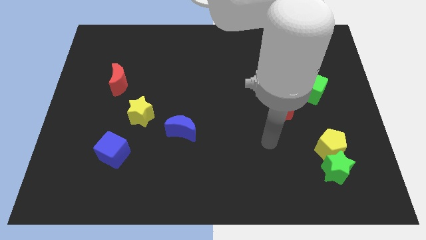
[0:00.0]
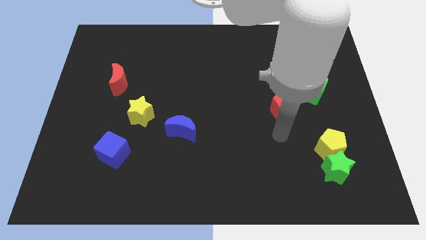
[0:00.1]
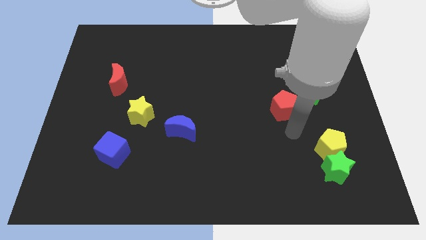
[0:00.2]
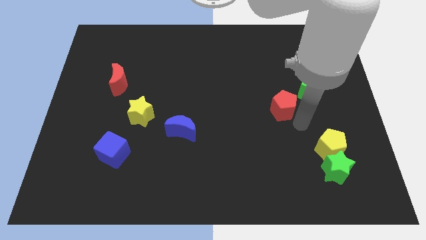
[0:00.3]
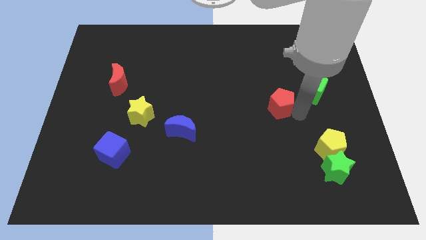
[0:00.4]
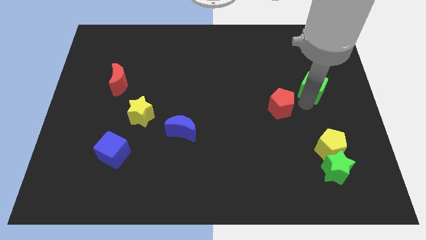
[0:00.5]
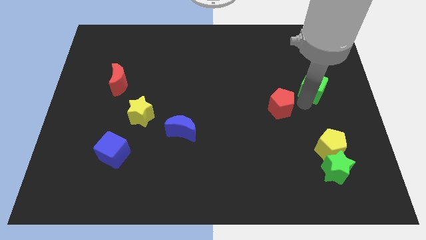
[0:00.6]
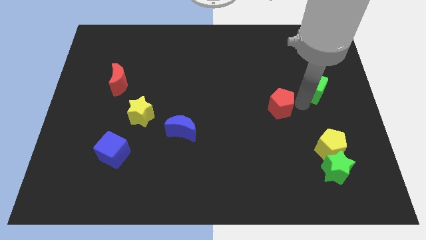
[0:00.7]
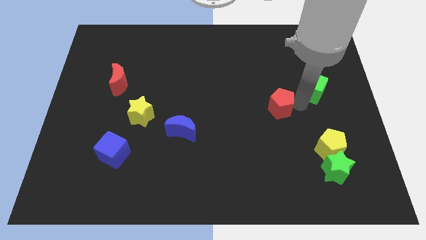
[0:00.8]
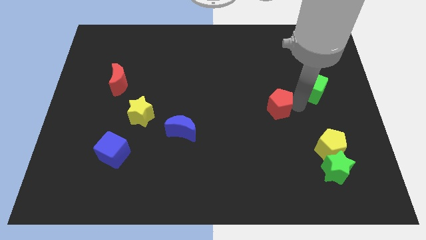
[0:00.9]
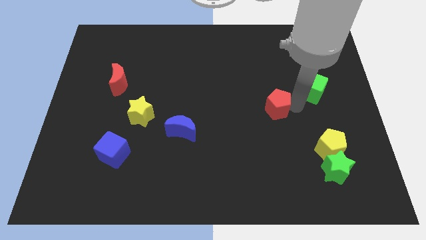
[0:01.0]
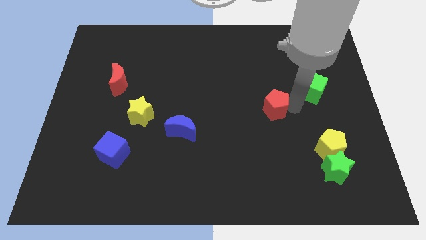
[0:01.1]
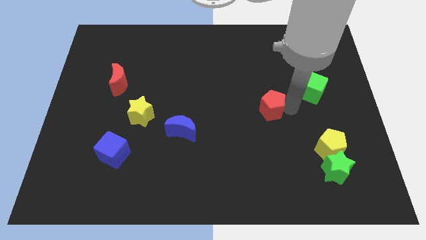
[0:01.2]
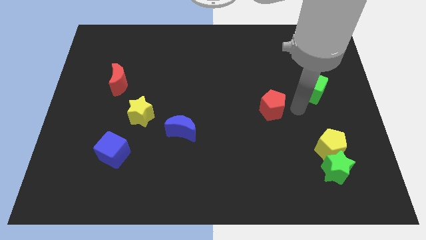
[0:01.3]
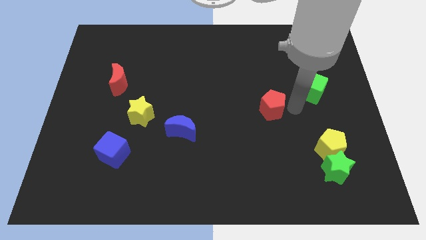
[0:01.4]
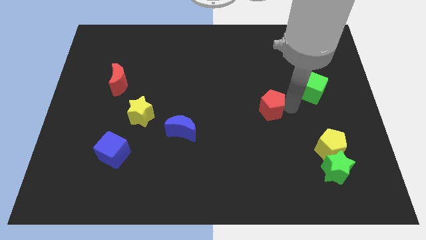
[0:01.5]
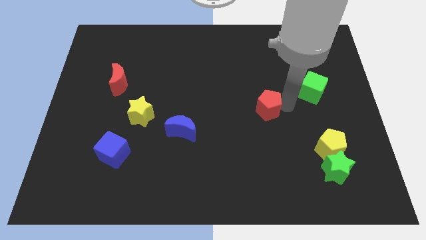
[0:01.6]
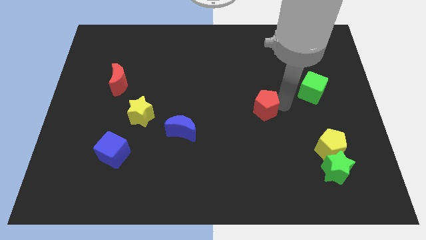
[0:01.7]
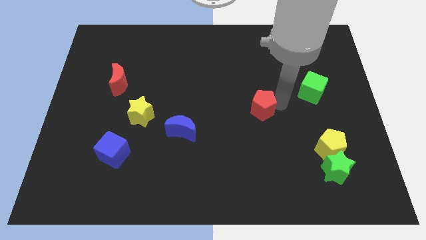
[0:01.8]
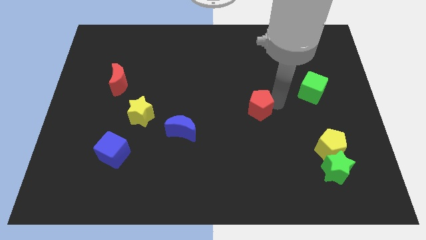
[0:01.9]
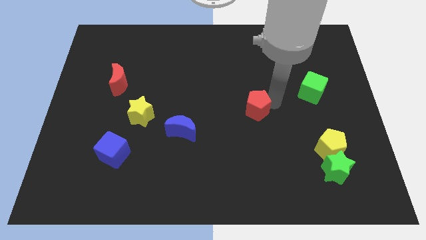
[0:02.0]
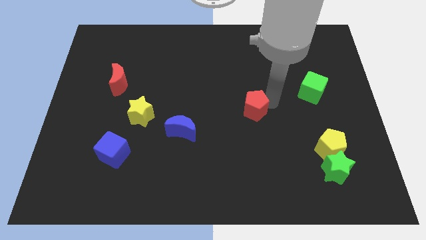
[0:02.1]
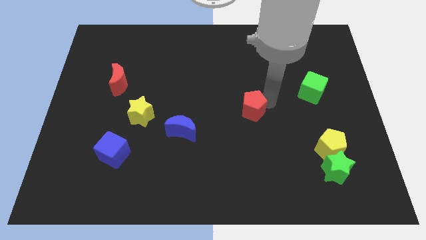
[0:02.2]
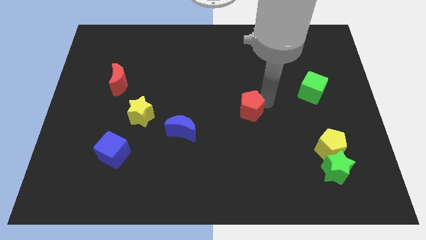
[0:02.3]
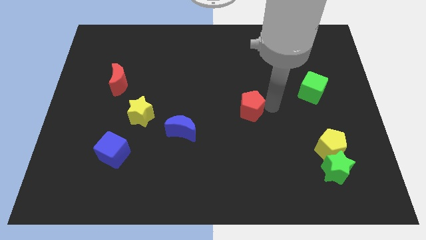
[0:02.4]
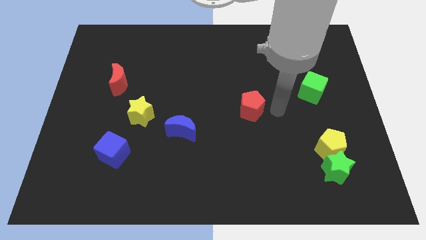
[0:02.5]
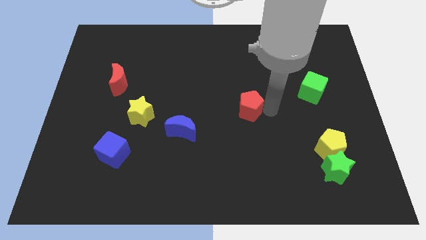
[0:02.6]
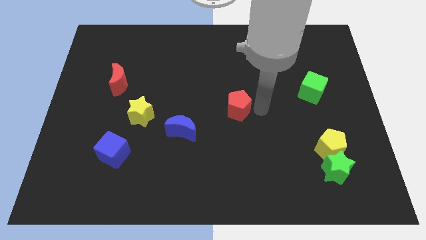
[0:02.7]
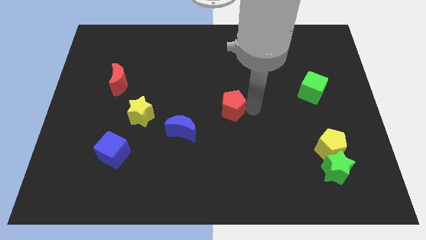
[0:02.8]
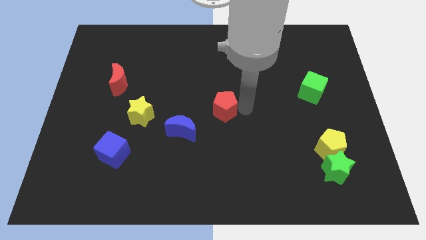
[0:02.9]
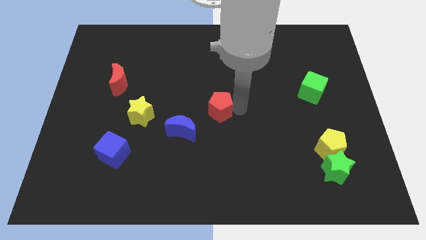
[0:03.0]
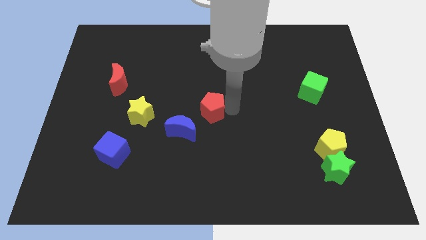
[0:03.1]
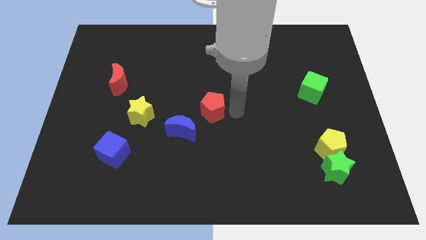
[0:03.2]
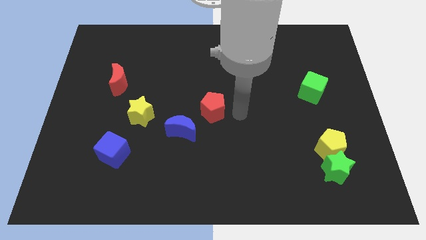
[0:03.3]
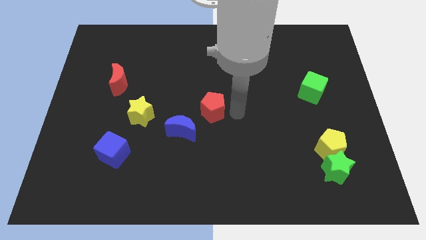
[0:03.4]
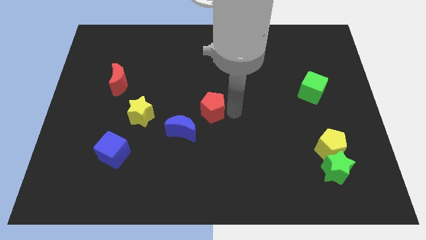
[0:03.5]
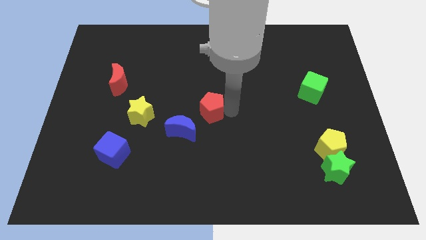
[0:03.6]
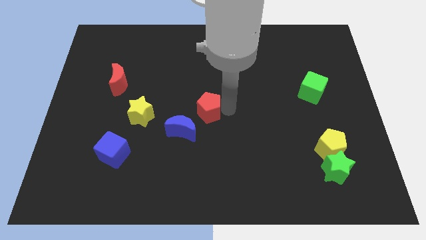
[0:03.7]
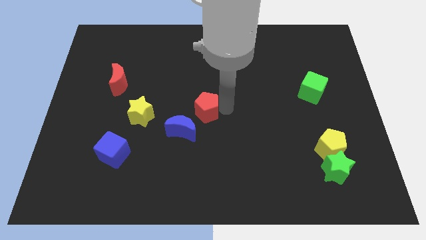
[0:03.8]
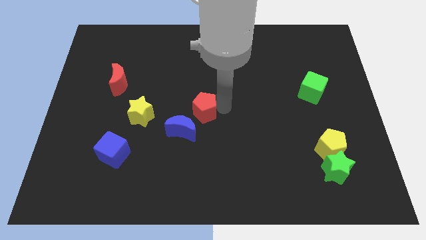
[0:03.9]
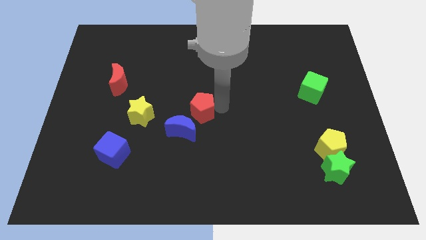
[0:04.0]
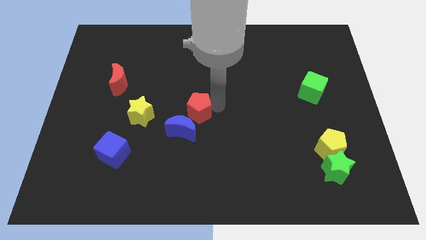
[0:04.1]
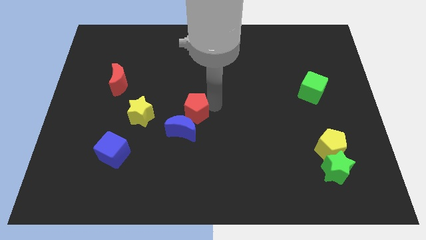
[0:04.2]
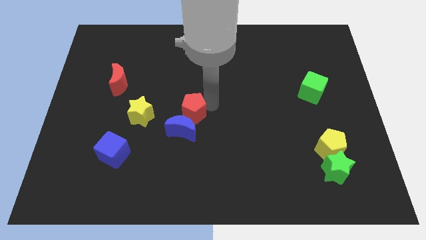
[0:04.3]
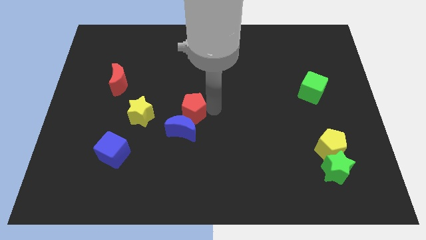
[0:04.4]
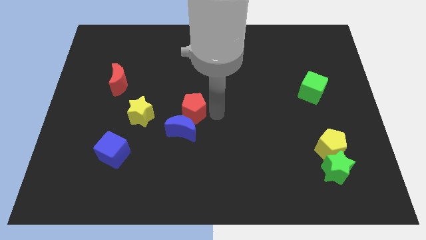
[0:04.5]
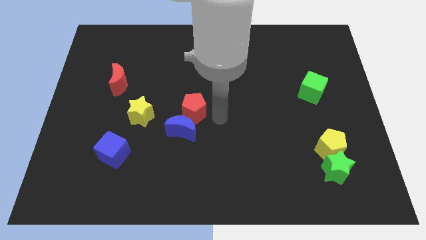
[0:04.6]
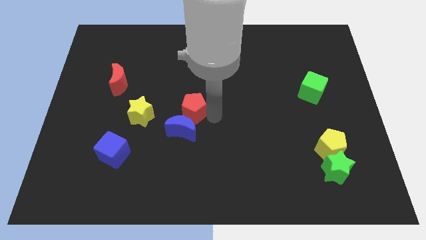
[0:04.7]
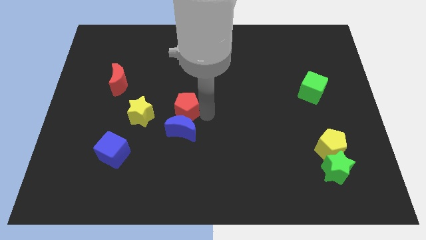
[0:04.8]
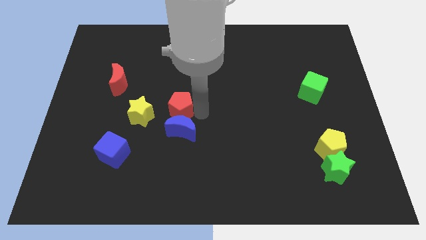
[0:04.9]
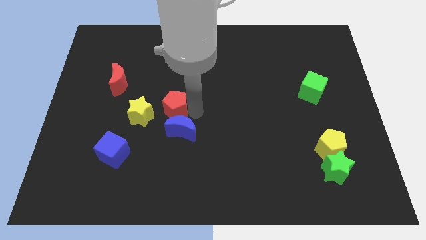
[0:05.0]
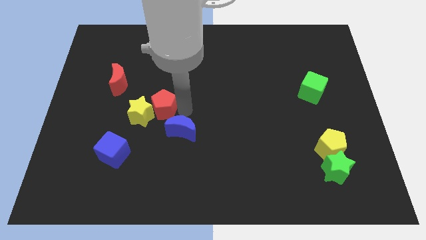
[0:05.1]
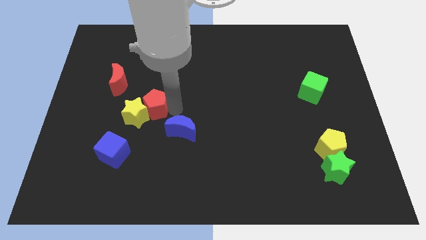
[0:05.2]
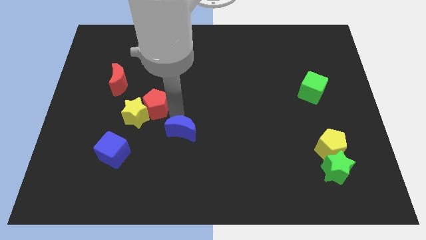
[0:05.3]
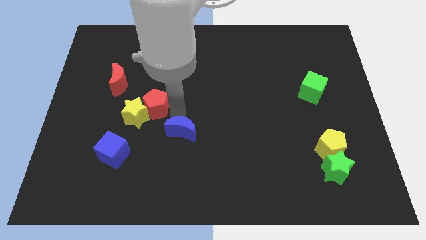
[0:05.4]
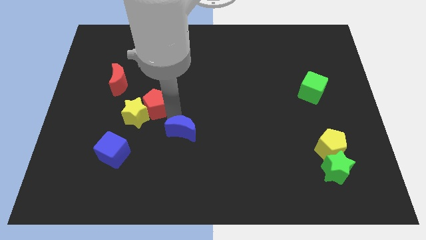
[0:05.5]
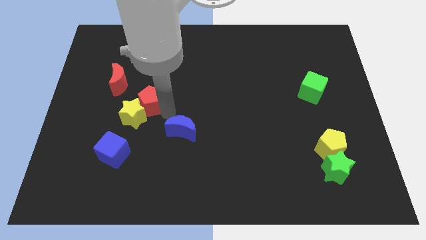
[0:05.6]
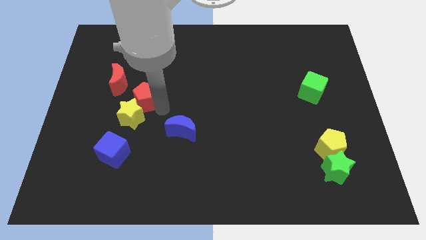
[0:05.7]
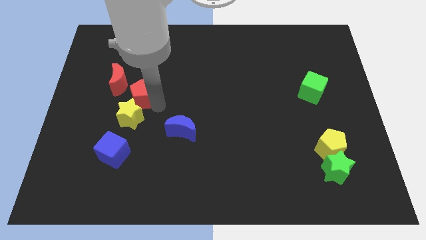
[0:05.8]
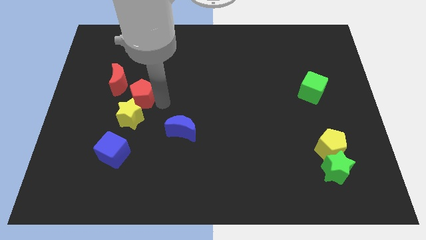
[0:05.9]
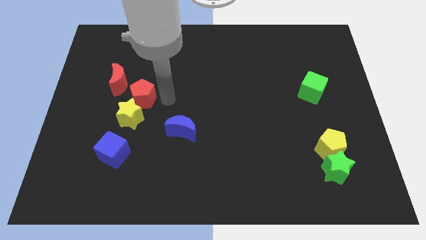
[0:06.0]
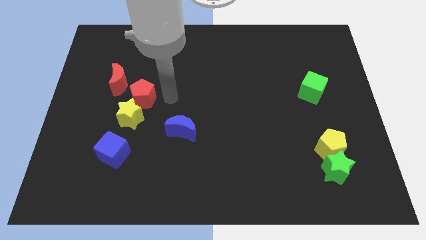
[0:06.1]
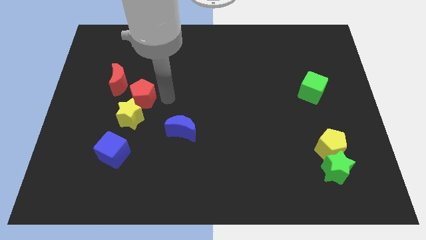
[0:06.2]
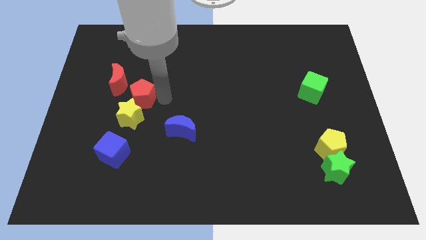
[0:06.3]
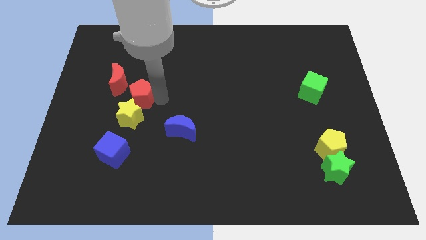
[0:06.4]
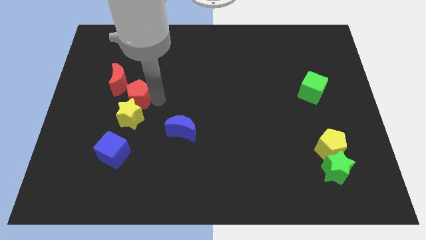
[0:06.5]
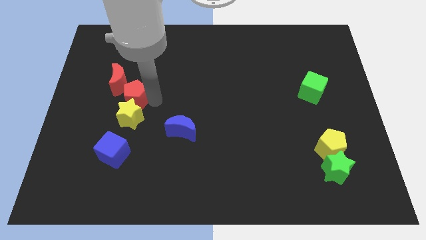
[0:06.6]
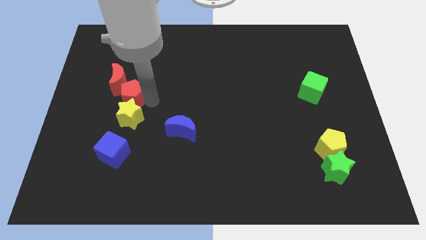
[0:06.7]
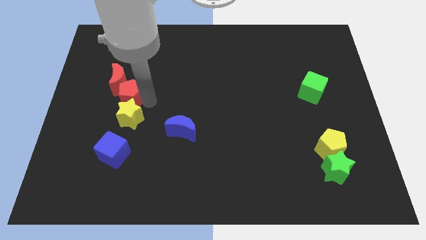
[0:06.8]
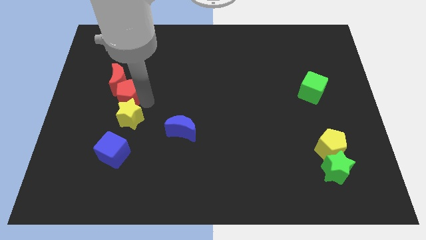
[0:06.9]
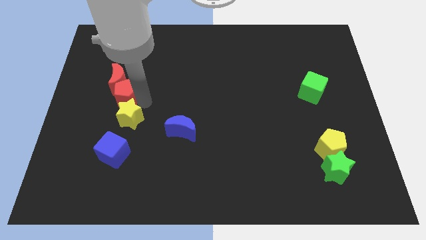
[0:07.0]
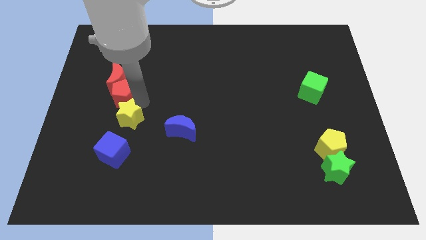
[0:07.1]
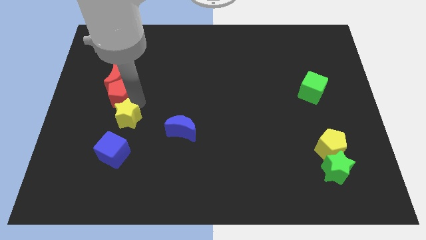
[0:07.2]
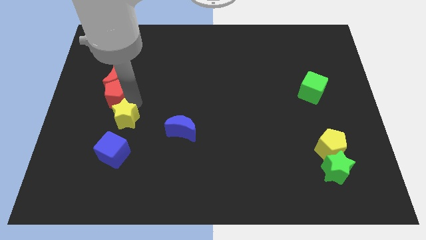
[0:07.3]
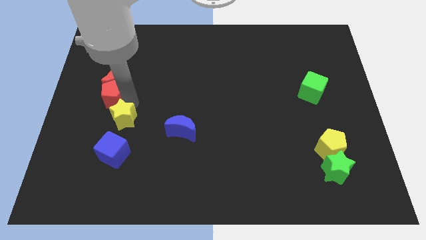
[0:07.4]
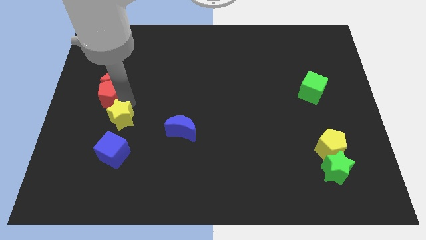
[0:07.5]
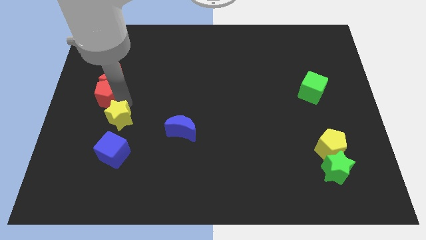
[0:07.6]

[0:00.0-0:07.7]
push the red pentagon to the center left
